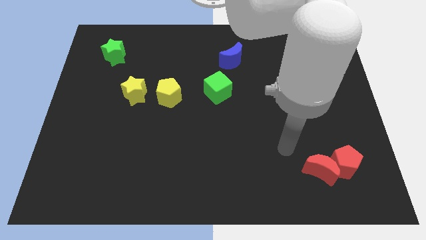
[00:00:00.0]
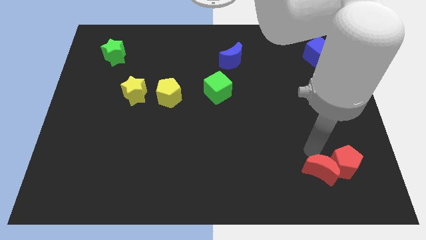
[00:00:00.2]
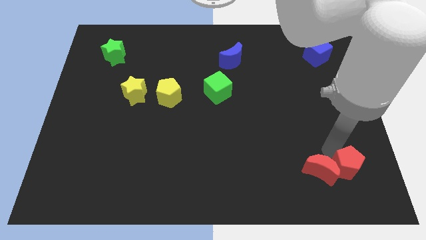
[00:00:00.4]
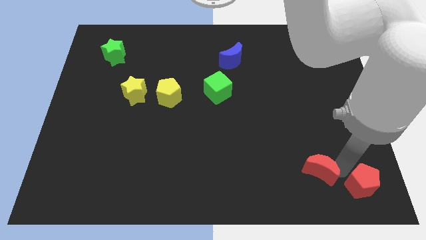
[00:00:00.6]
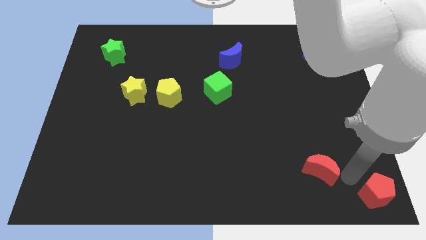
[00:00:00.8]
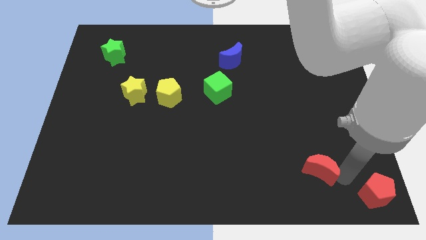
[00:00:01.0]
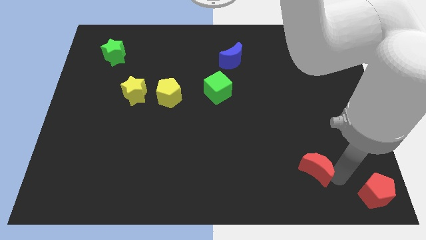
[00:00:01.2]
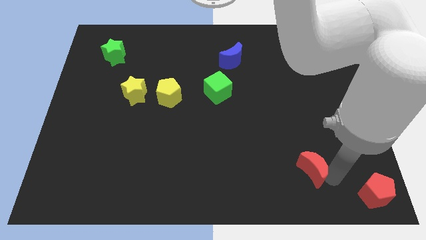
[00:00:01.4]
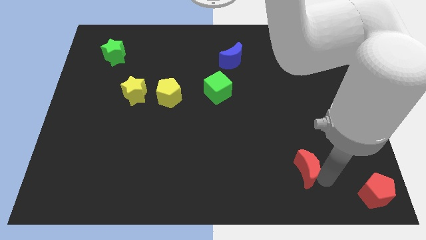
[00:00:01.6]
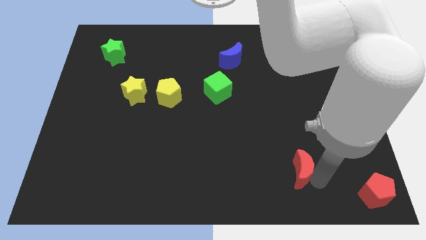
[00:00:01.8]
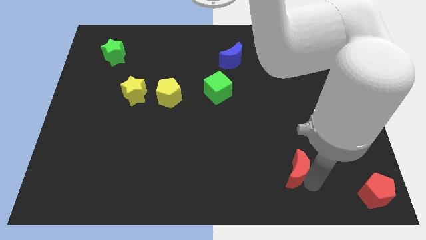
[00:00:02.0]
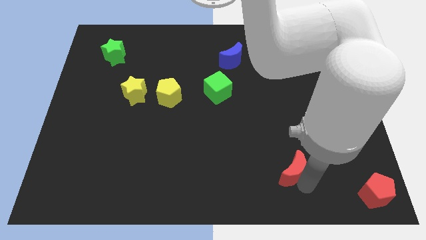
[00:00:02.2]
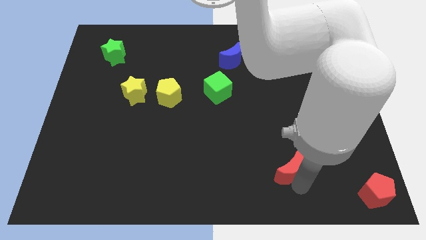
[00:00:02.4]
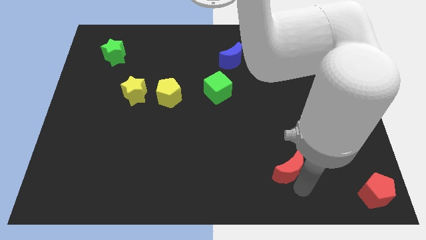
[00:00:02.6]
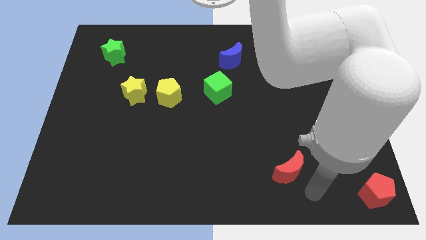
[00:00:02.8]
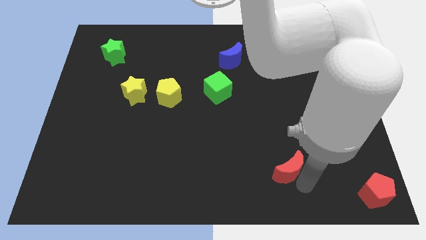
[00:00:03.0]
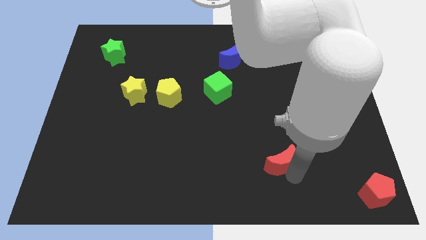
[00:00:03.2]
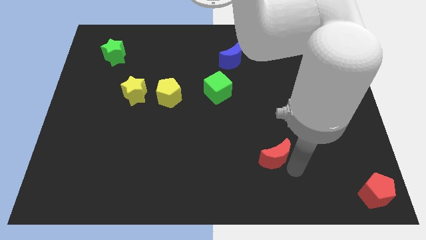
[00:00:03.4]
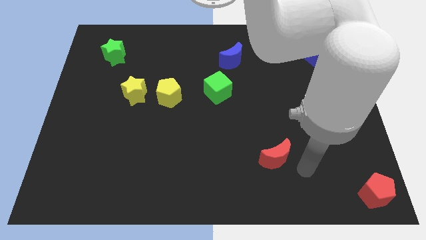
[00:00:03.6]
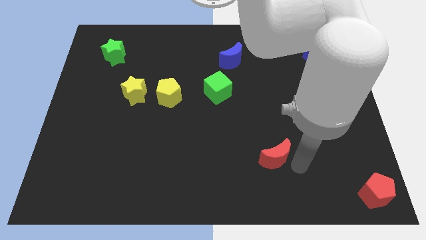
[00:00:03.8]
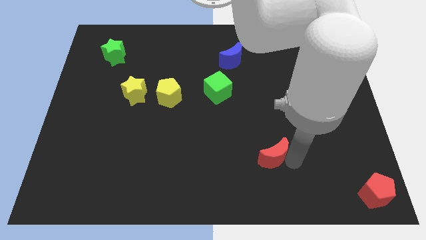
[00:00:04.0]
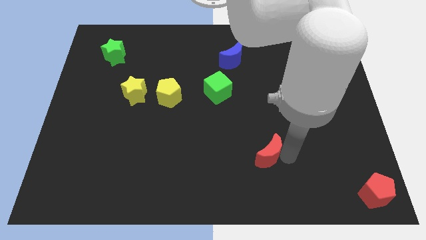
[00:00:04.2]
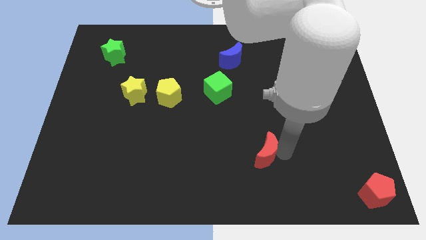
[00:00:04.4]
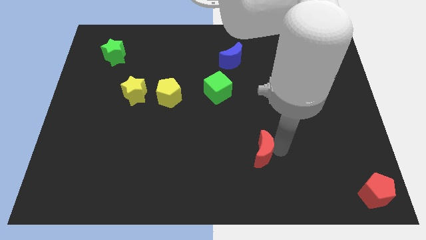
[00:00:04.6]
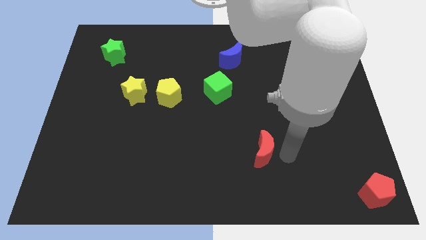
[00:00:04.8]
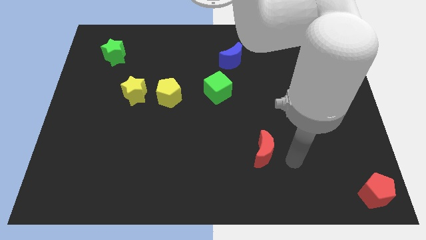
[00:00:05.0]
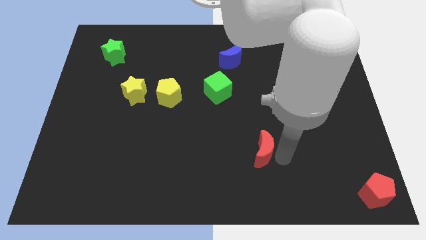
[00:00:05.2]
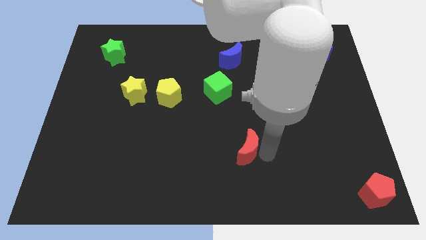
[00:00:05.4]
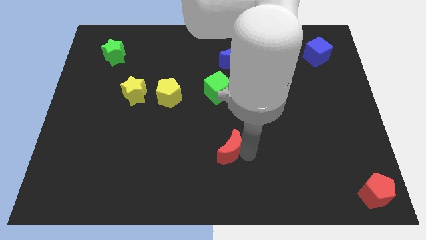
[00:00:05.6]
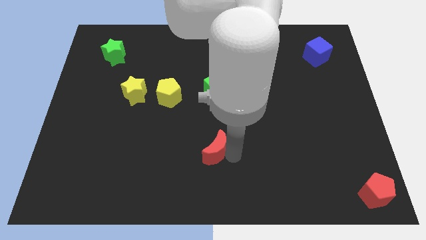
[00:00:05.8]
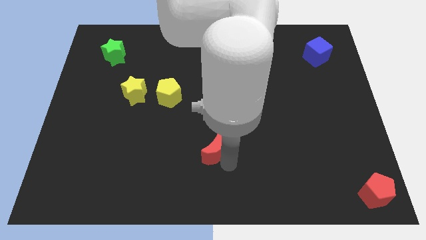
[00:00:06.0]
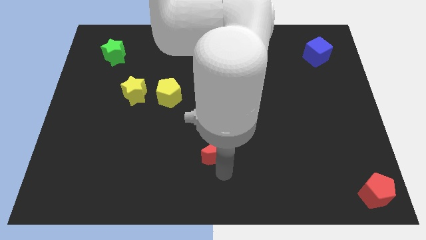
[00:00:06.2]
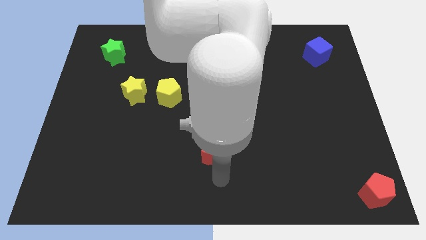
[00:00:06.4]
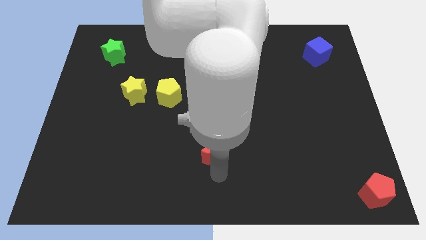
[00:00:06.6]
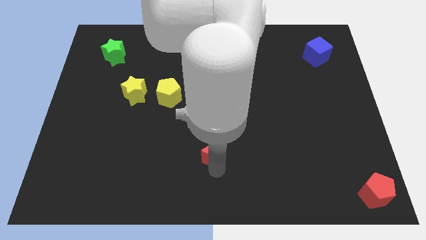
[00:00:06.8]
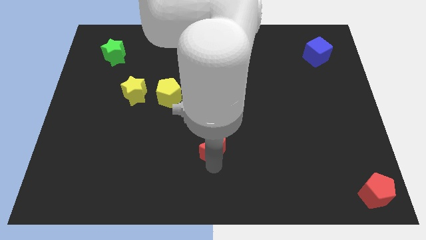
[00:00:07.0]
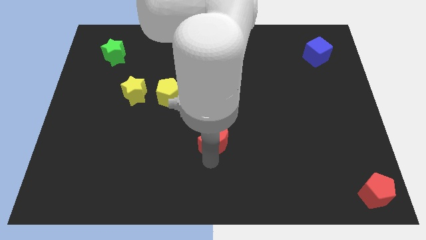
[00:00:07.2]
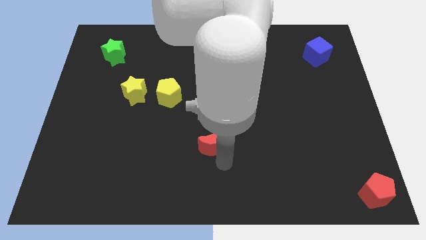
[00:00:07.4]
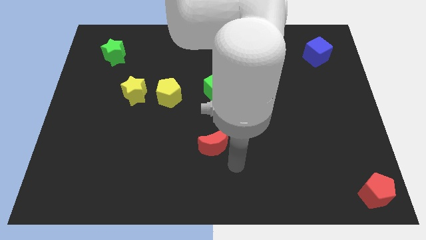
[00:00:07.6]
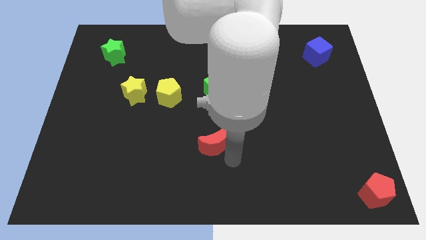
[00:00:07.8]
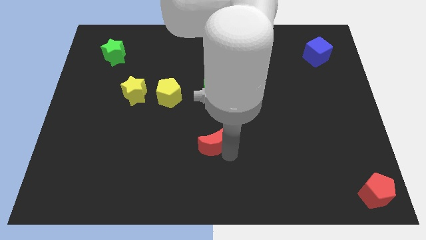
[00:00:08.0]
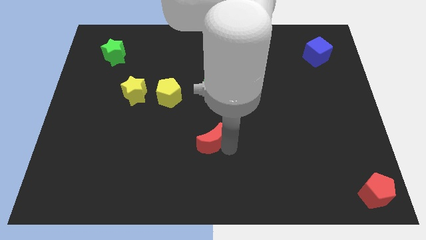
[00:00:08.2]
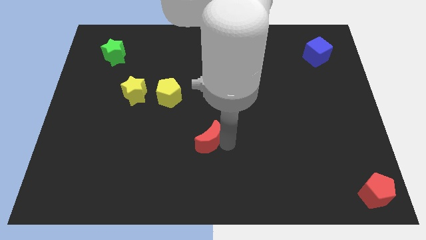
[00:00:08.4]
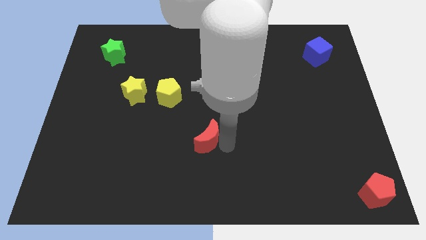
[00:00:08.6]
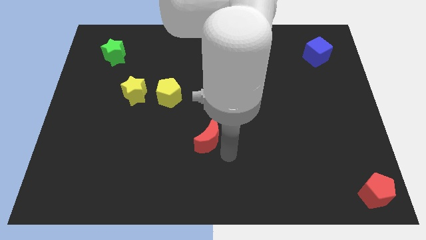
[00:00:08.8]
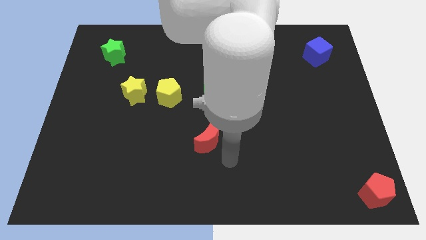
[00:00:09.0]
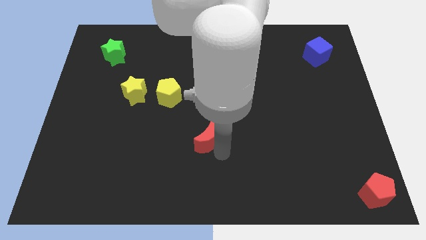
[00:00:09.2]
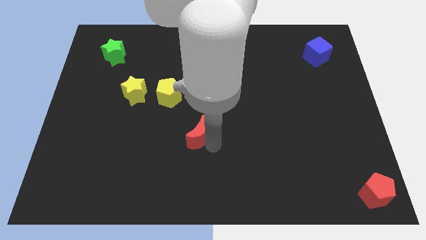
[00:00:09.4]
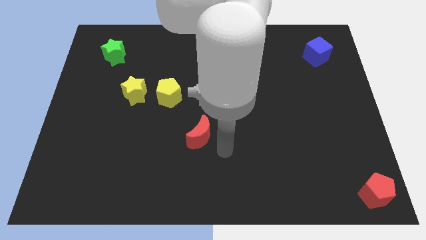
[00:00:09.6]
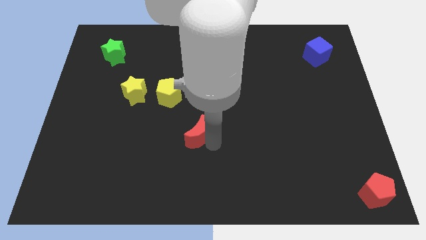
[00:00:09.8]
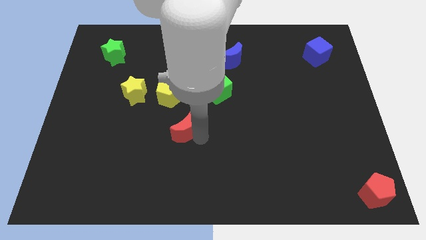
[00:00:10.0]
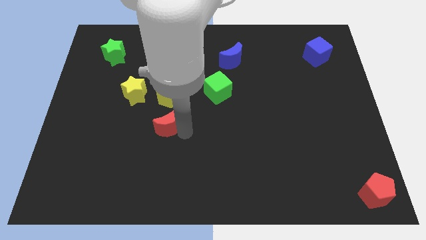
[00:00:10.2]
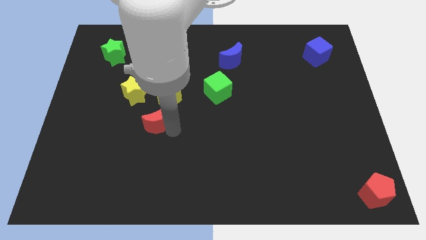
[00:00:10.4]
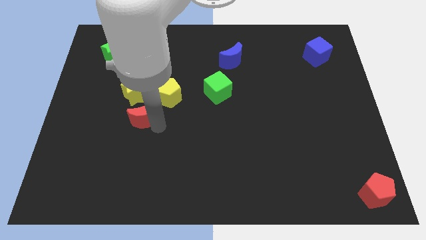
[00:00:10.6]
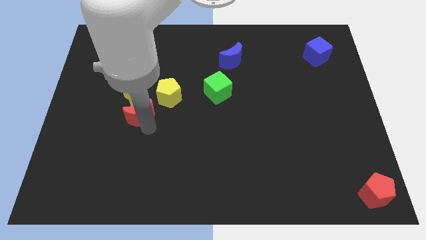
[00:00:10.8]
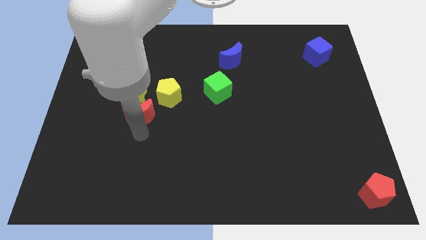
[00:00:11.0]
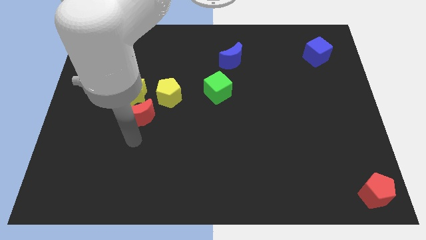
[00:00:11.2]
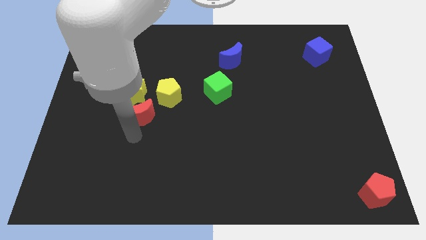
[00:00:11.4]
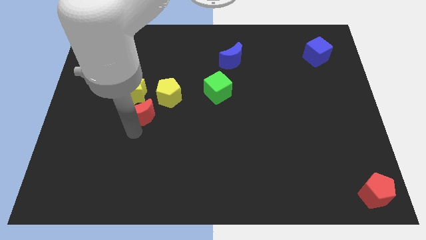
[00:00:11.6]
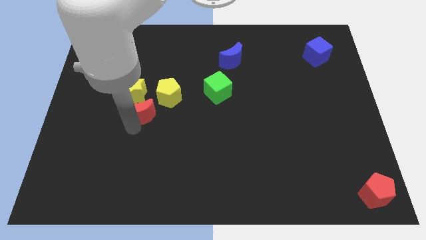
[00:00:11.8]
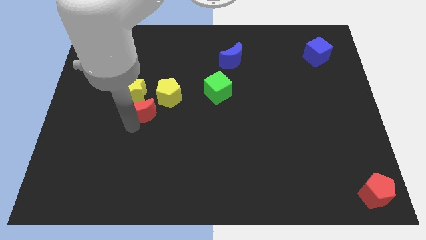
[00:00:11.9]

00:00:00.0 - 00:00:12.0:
push the red moon next to the yellow star

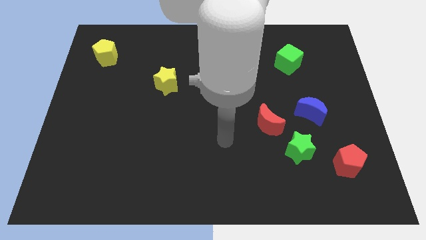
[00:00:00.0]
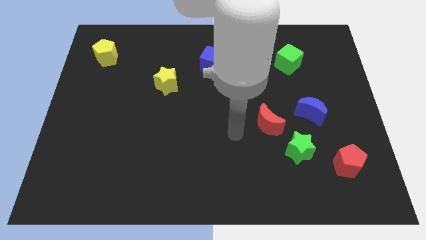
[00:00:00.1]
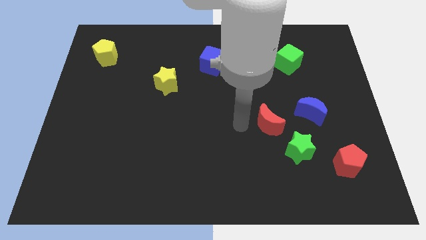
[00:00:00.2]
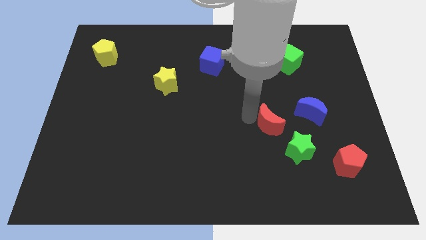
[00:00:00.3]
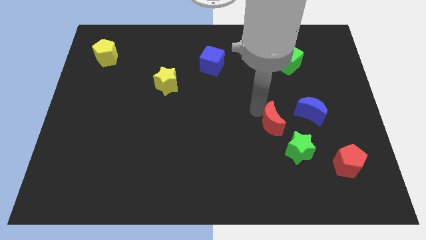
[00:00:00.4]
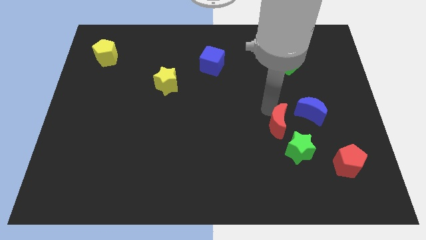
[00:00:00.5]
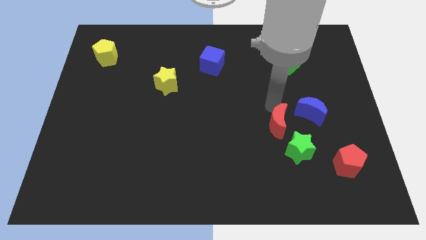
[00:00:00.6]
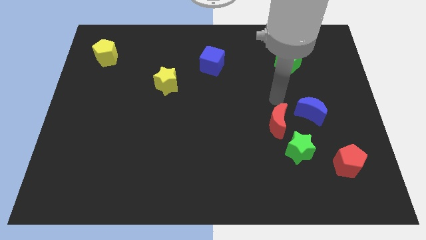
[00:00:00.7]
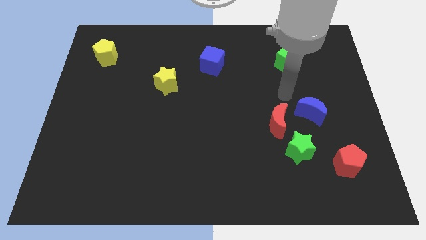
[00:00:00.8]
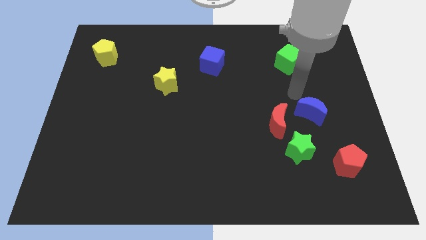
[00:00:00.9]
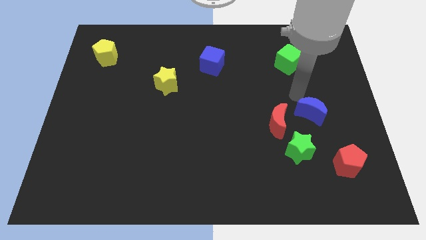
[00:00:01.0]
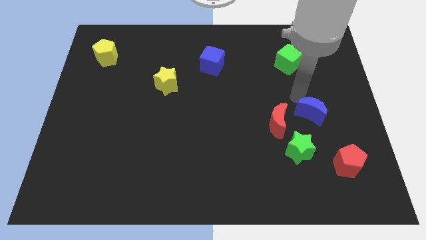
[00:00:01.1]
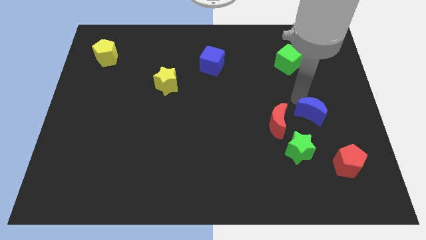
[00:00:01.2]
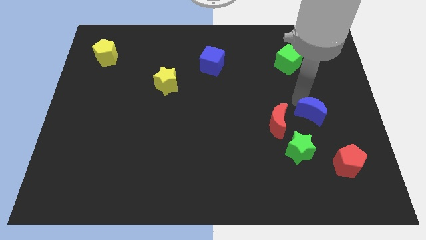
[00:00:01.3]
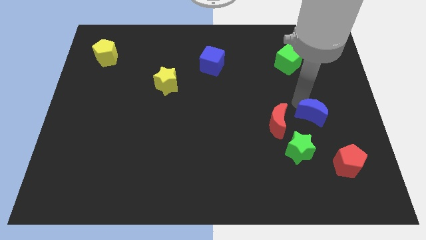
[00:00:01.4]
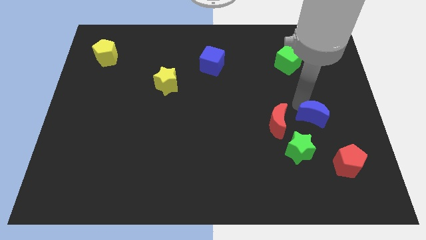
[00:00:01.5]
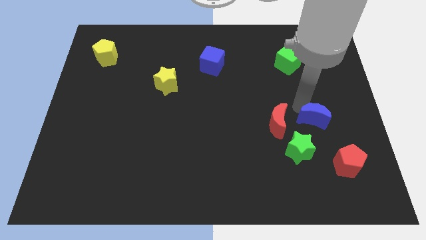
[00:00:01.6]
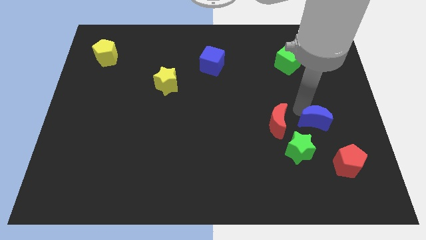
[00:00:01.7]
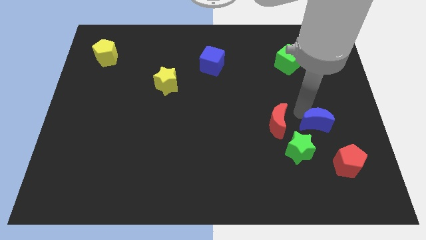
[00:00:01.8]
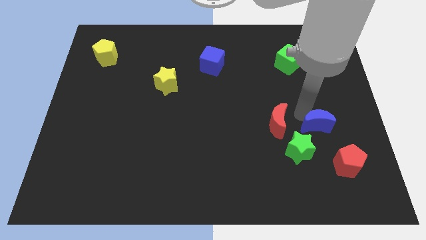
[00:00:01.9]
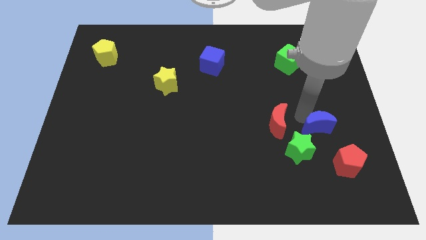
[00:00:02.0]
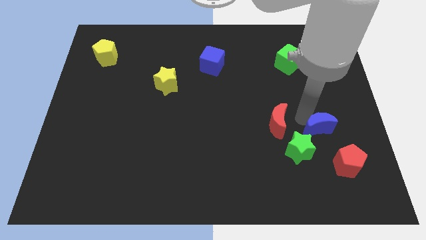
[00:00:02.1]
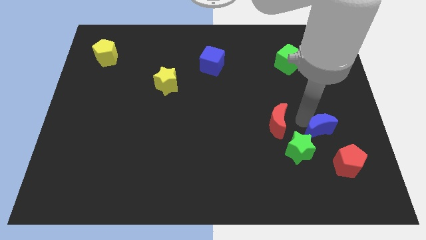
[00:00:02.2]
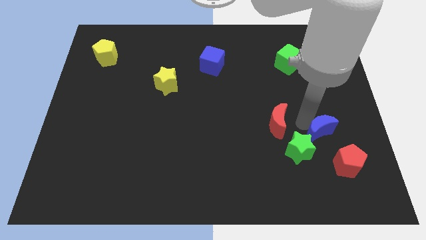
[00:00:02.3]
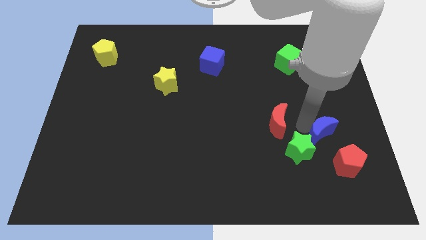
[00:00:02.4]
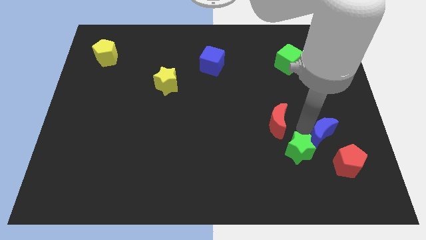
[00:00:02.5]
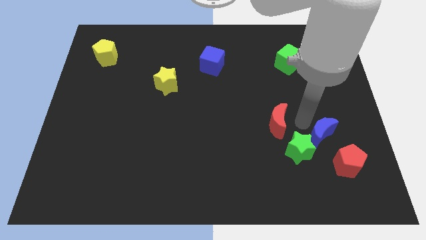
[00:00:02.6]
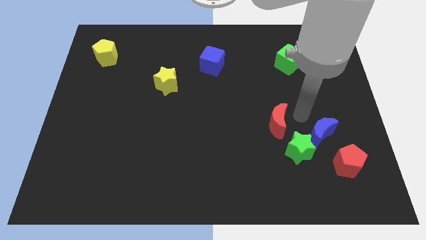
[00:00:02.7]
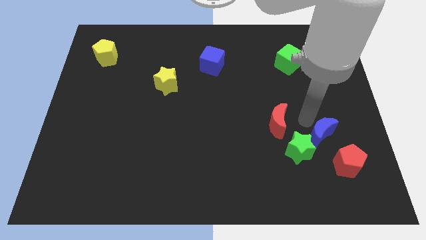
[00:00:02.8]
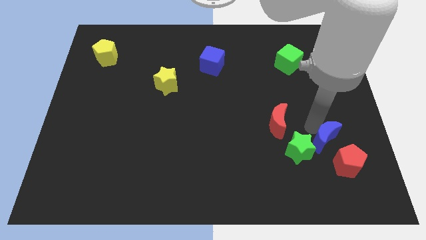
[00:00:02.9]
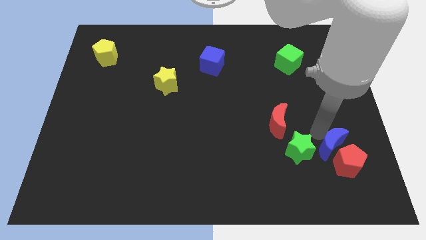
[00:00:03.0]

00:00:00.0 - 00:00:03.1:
push the blue moon towards the red pentagon
